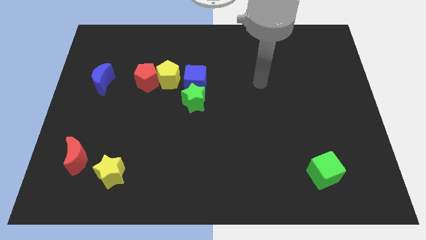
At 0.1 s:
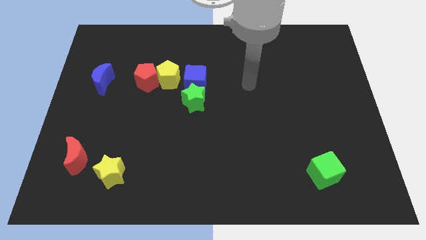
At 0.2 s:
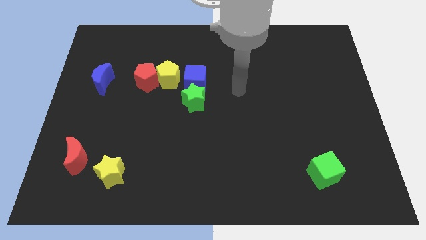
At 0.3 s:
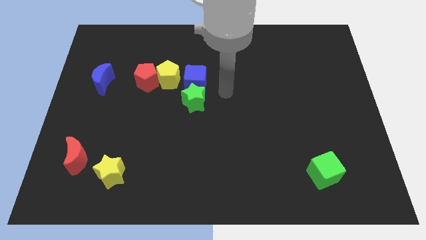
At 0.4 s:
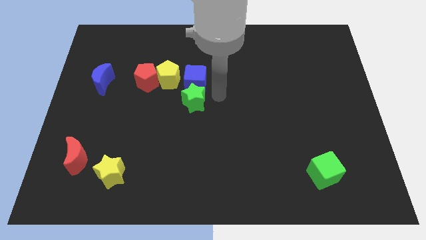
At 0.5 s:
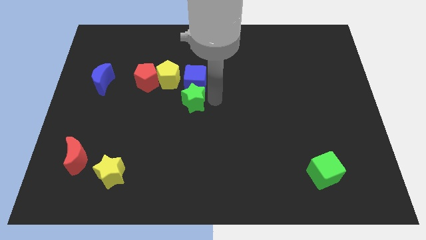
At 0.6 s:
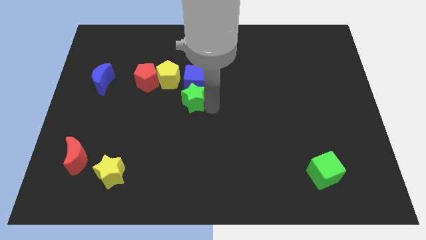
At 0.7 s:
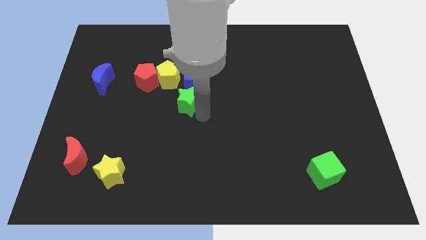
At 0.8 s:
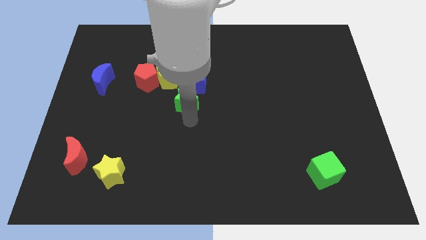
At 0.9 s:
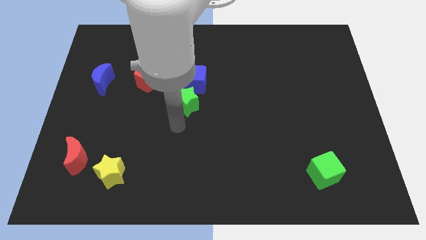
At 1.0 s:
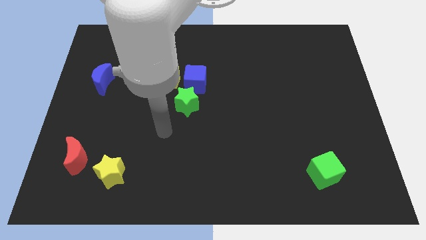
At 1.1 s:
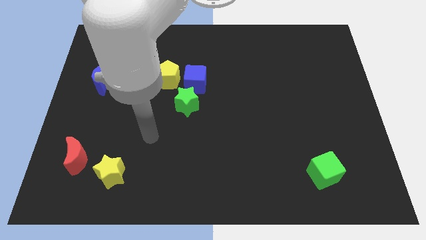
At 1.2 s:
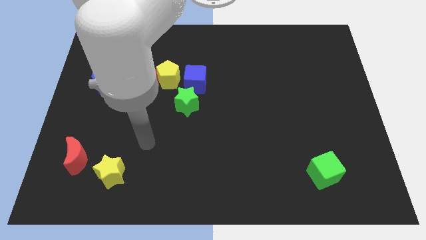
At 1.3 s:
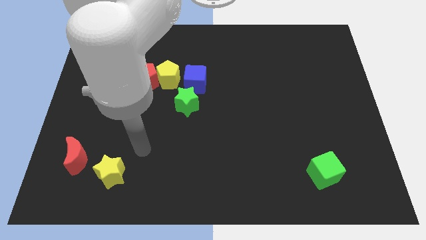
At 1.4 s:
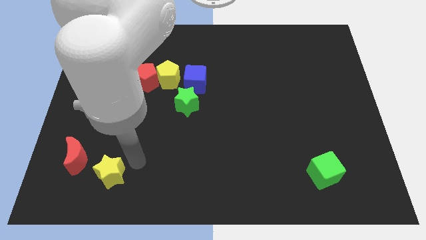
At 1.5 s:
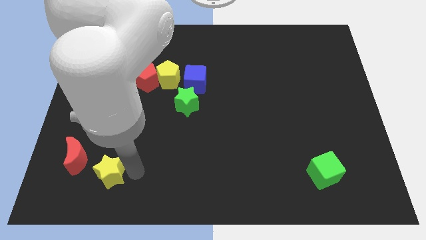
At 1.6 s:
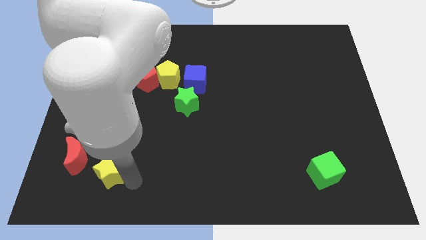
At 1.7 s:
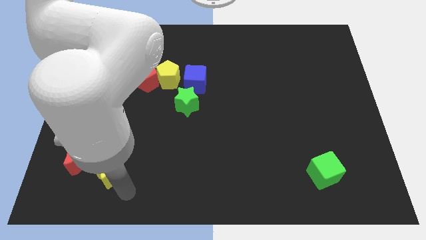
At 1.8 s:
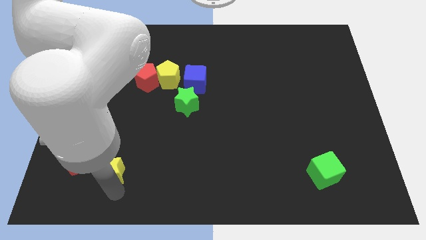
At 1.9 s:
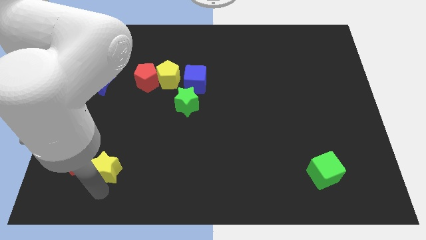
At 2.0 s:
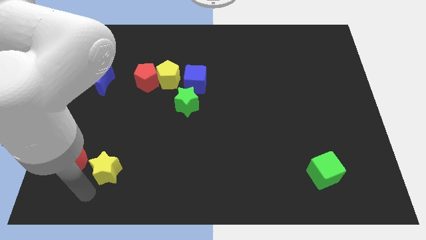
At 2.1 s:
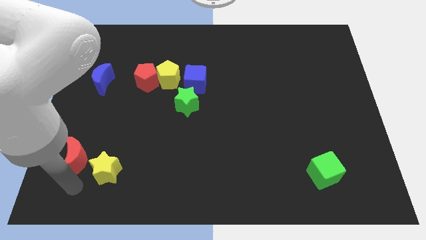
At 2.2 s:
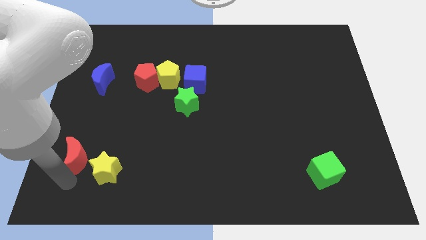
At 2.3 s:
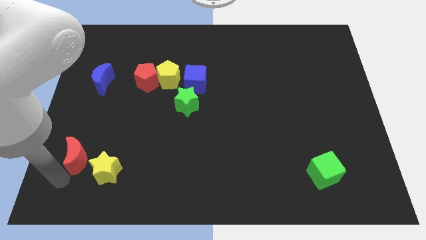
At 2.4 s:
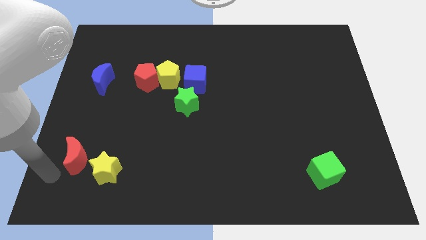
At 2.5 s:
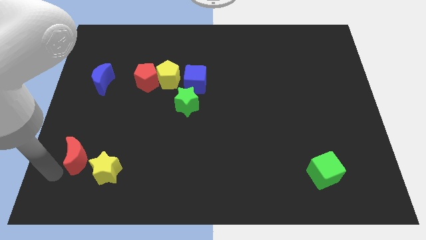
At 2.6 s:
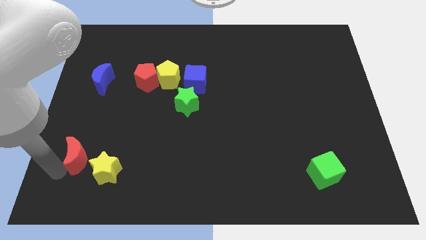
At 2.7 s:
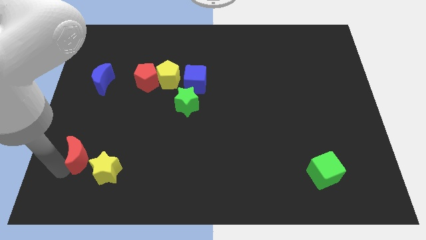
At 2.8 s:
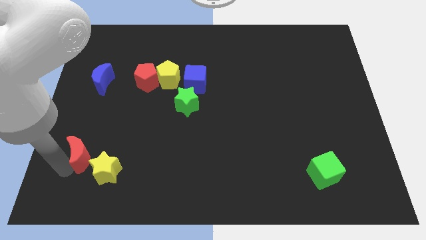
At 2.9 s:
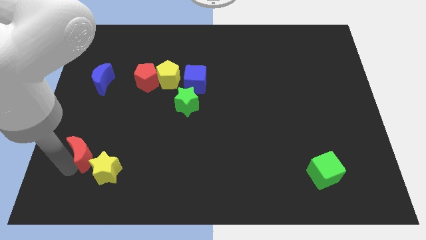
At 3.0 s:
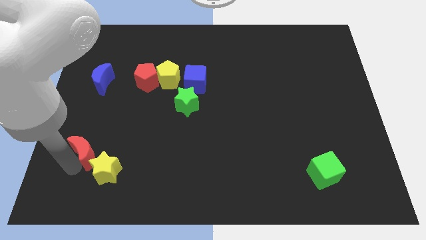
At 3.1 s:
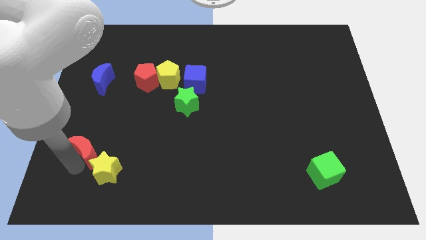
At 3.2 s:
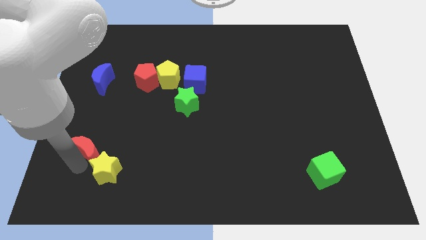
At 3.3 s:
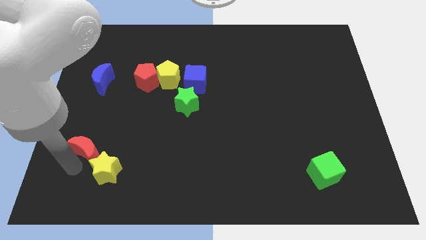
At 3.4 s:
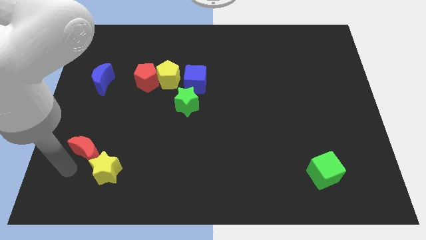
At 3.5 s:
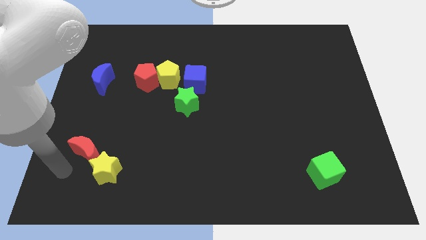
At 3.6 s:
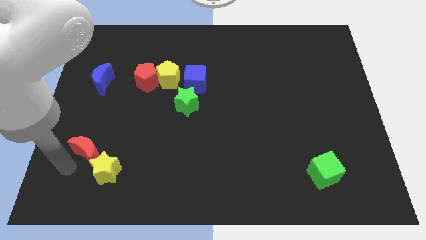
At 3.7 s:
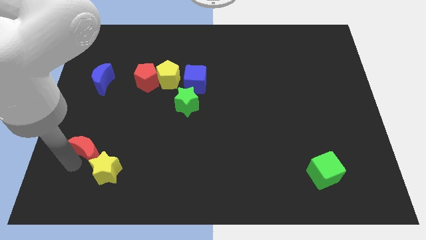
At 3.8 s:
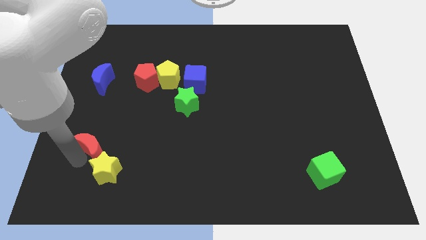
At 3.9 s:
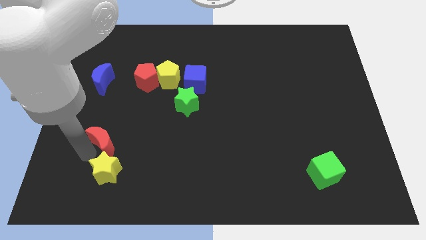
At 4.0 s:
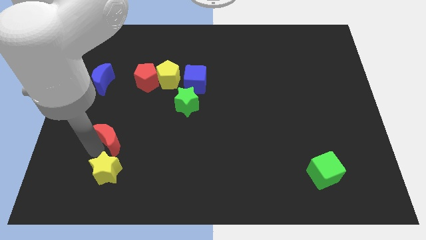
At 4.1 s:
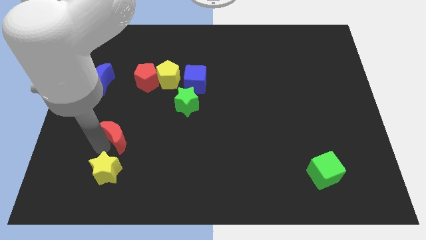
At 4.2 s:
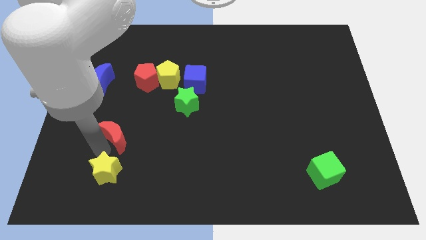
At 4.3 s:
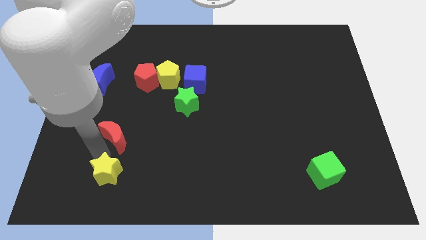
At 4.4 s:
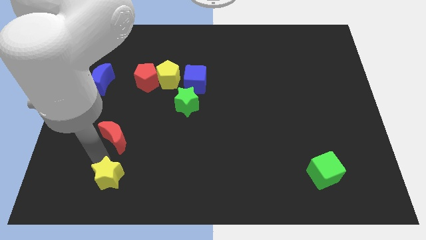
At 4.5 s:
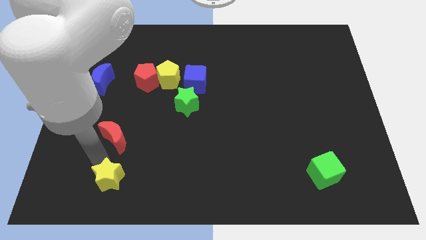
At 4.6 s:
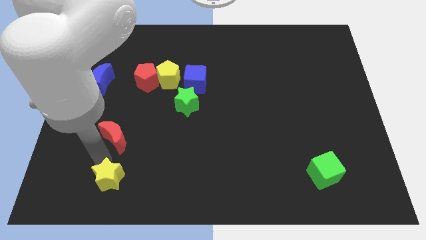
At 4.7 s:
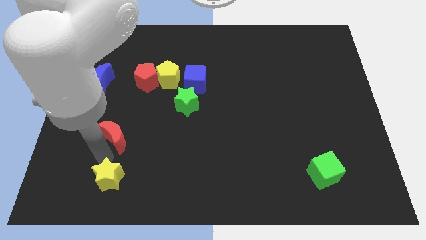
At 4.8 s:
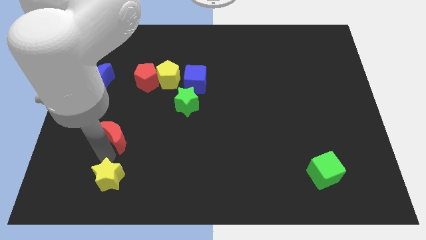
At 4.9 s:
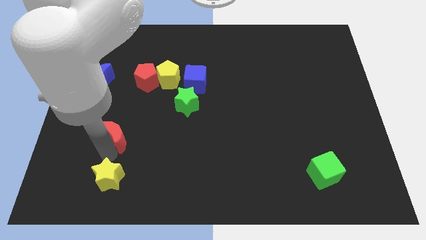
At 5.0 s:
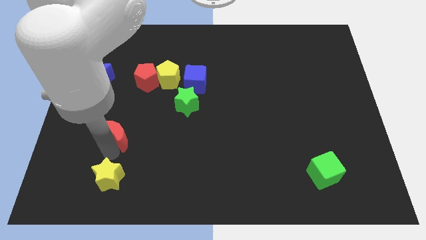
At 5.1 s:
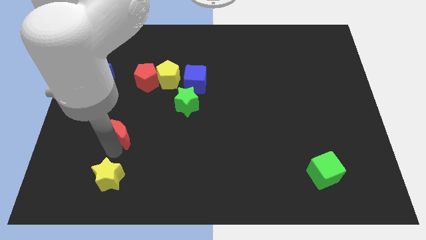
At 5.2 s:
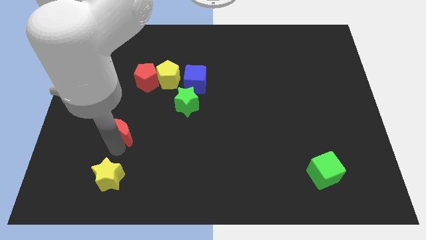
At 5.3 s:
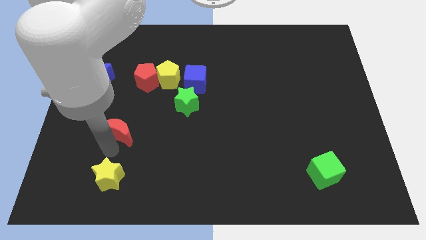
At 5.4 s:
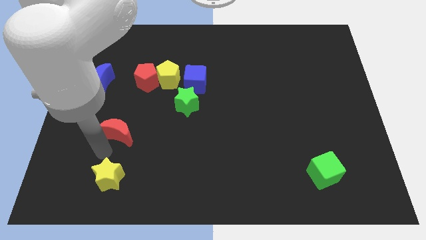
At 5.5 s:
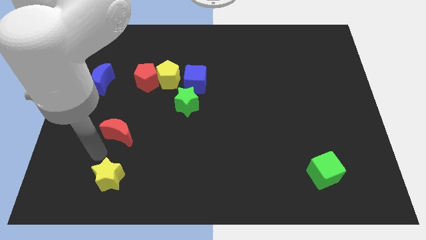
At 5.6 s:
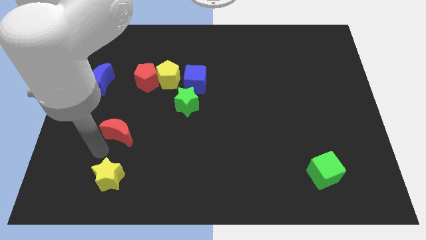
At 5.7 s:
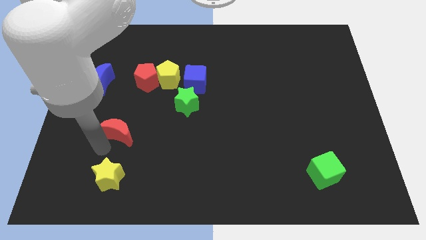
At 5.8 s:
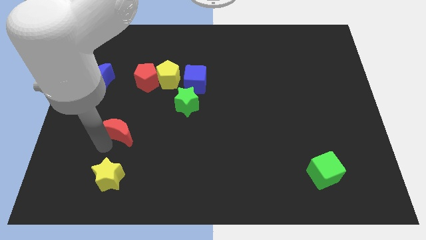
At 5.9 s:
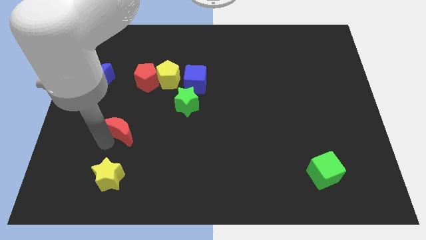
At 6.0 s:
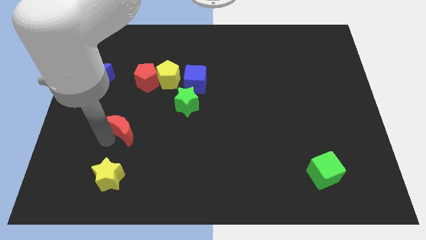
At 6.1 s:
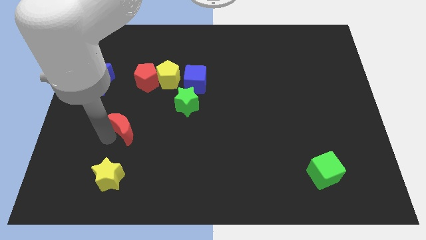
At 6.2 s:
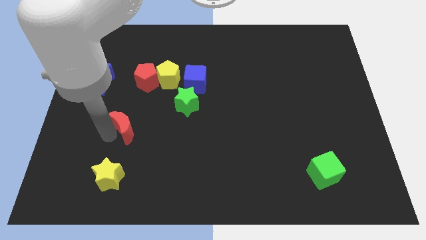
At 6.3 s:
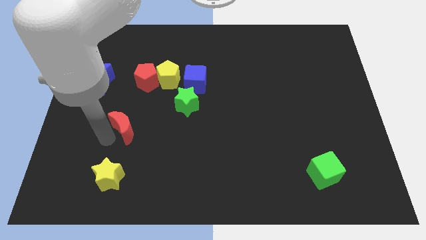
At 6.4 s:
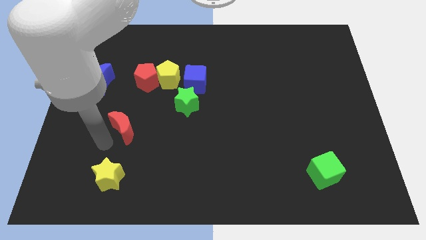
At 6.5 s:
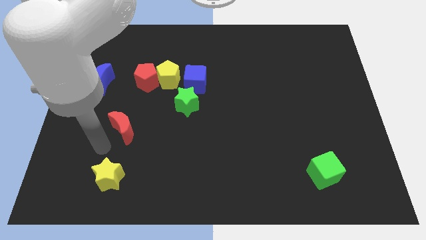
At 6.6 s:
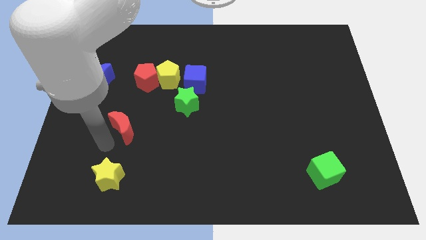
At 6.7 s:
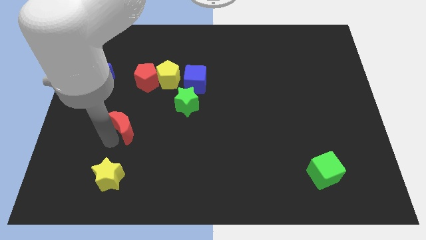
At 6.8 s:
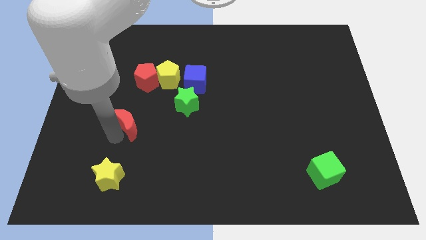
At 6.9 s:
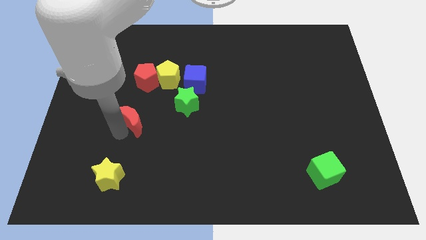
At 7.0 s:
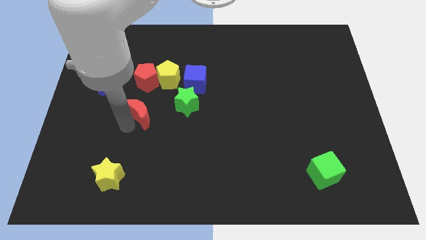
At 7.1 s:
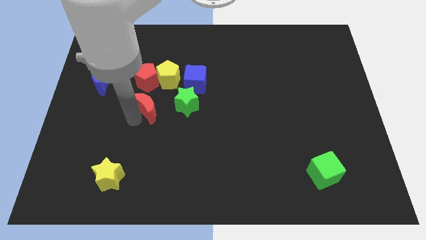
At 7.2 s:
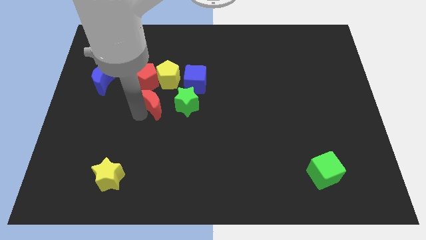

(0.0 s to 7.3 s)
move the red moon to the bottom left of the blue cube
